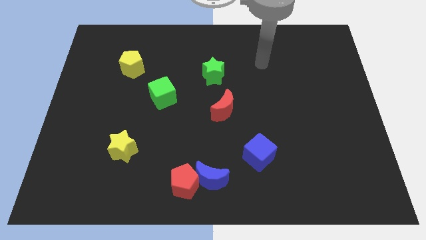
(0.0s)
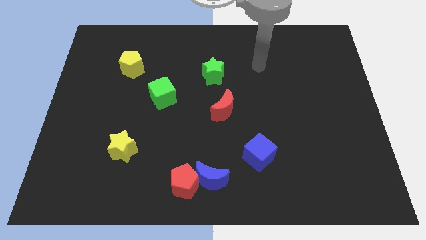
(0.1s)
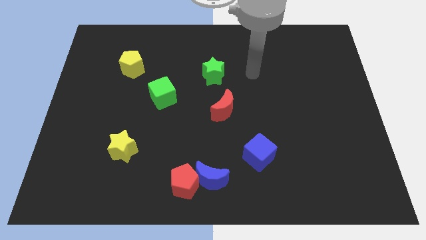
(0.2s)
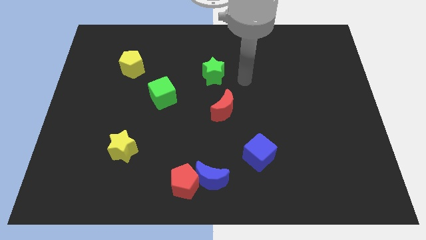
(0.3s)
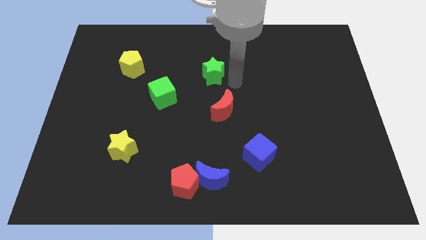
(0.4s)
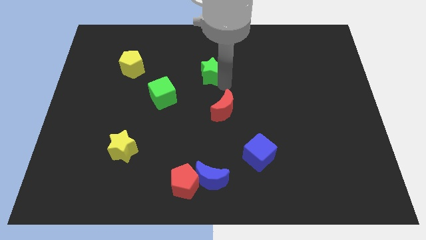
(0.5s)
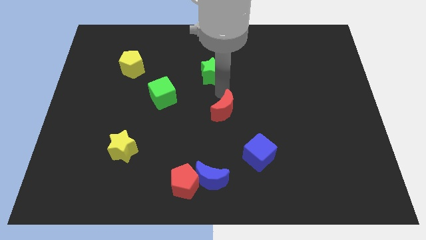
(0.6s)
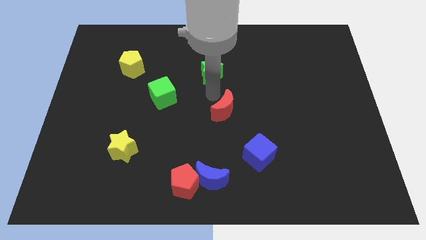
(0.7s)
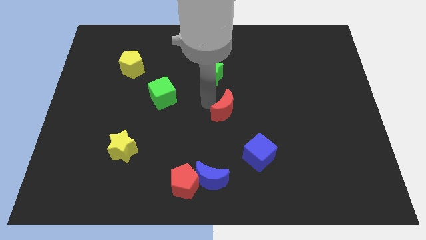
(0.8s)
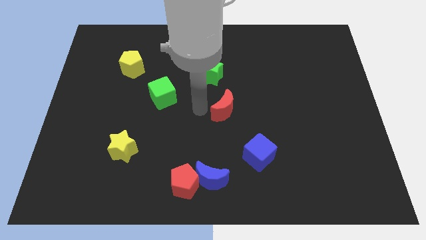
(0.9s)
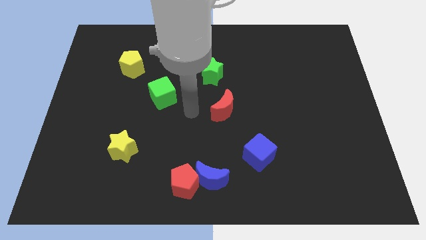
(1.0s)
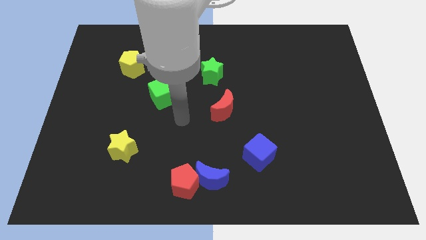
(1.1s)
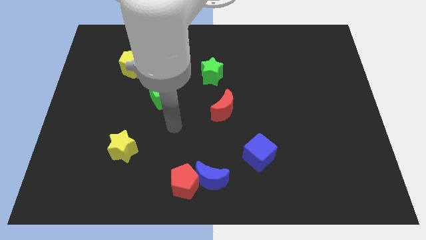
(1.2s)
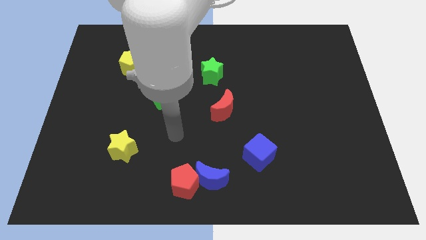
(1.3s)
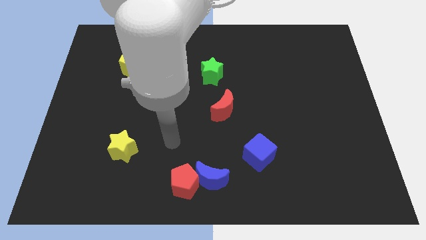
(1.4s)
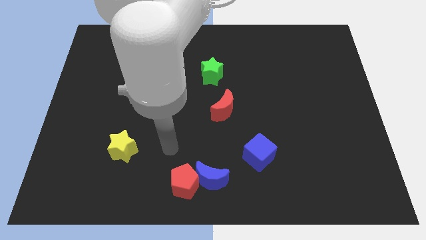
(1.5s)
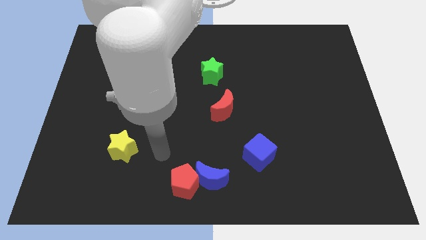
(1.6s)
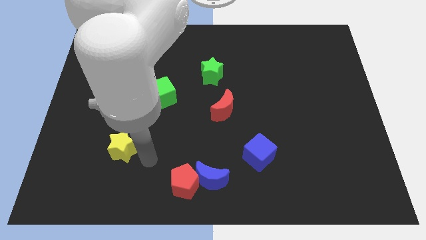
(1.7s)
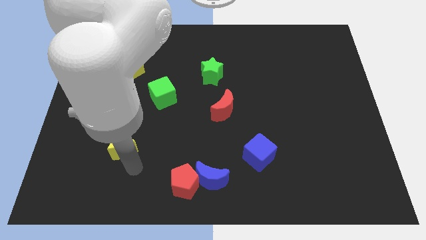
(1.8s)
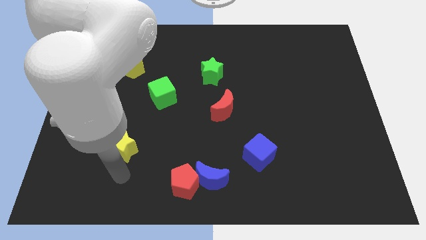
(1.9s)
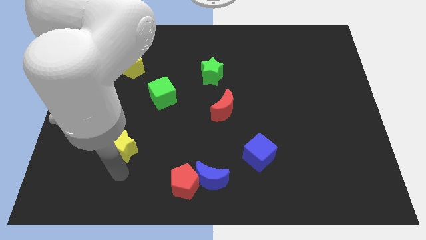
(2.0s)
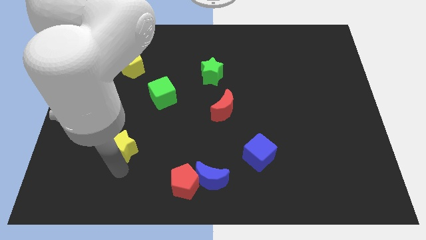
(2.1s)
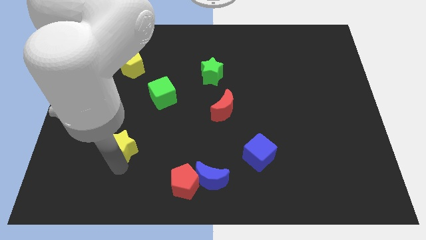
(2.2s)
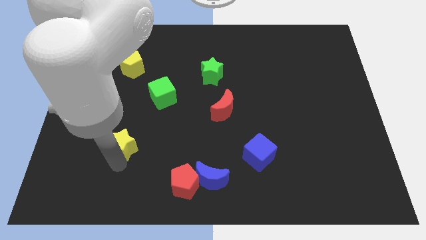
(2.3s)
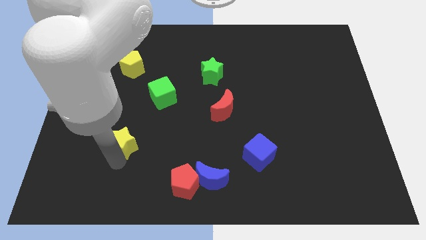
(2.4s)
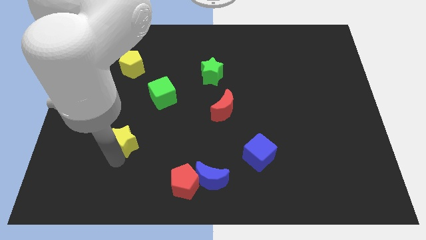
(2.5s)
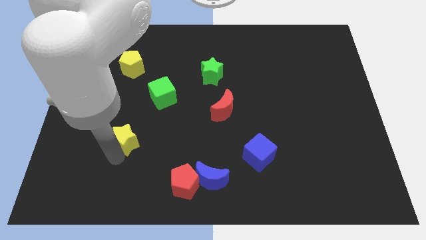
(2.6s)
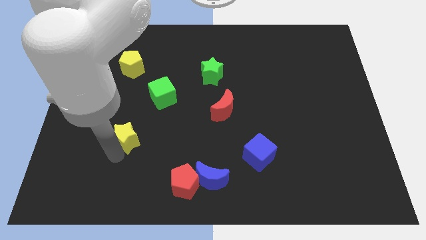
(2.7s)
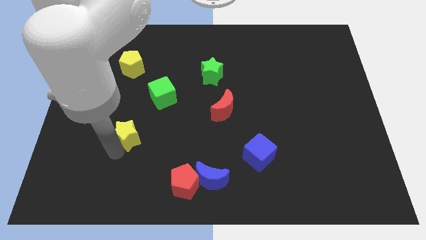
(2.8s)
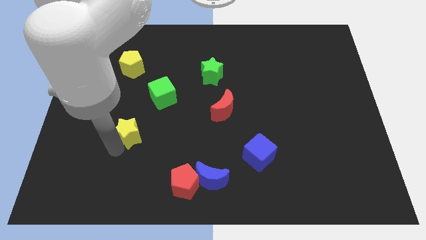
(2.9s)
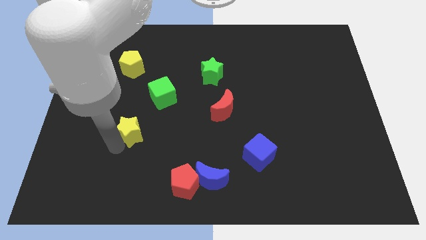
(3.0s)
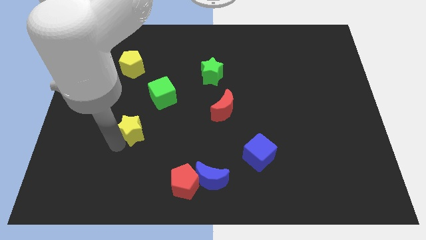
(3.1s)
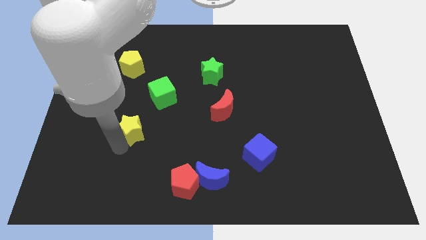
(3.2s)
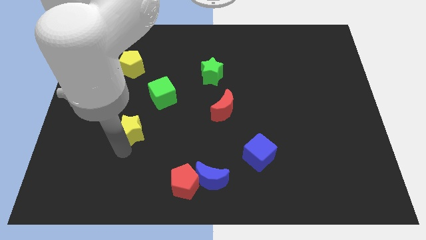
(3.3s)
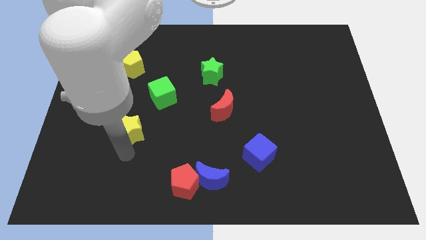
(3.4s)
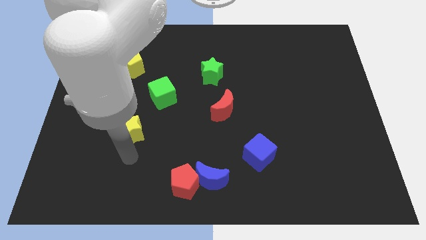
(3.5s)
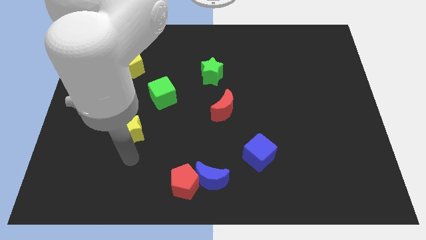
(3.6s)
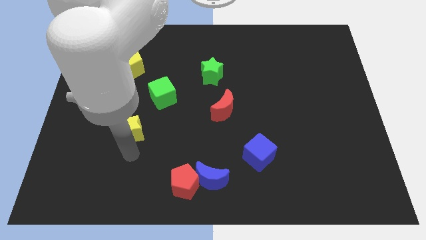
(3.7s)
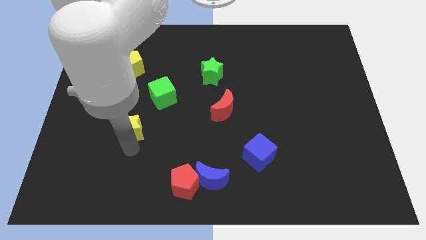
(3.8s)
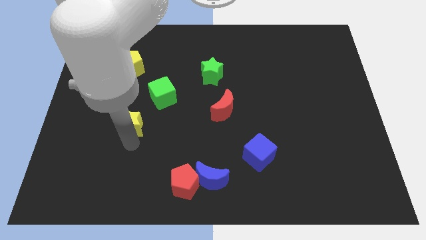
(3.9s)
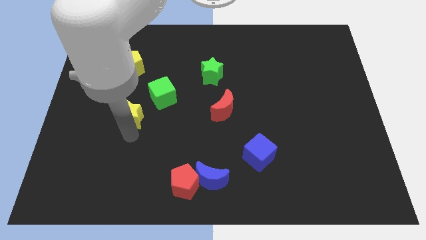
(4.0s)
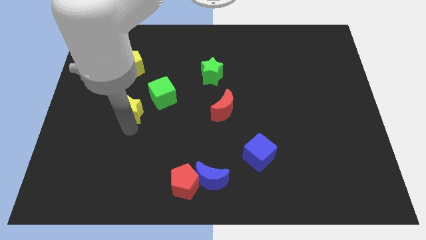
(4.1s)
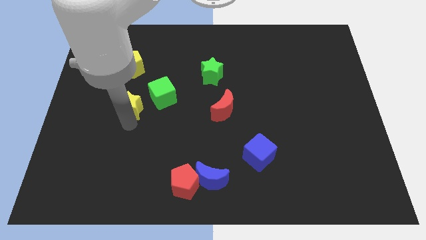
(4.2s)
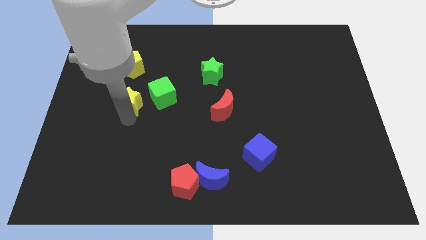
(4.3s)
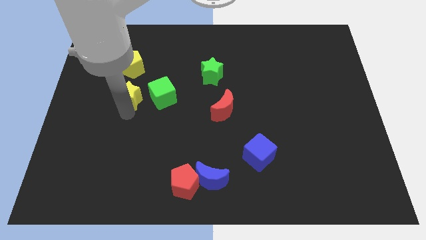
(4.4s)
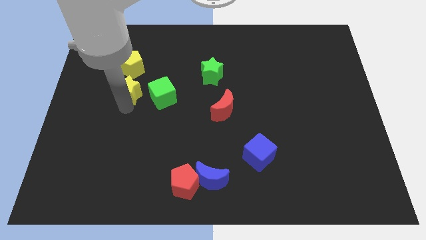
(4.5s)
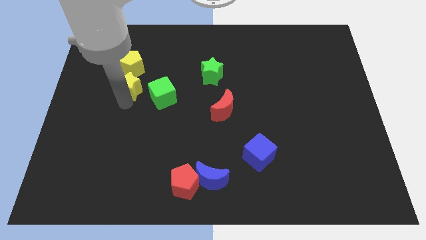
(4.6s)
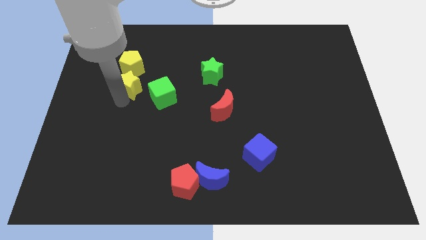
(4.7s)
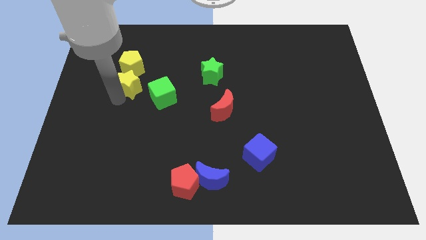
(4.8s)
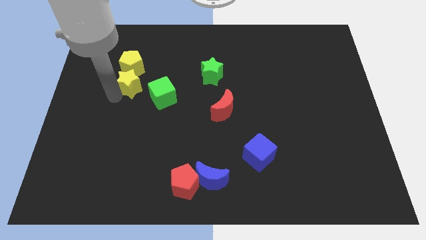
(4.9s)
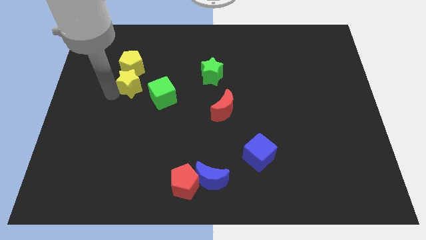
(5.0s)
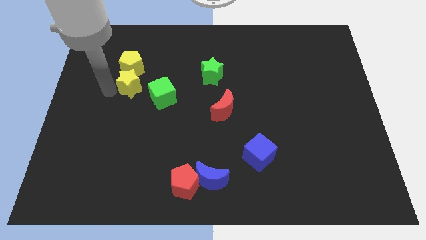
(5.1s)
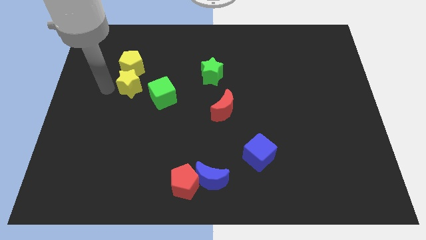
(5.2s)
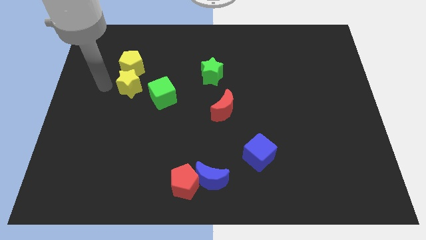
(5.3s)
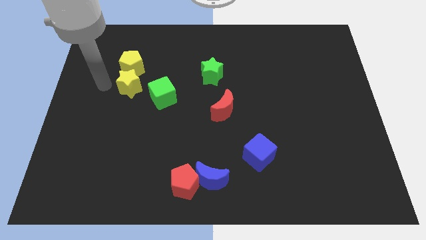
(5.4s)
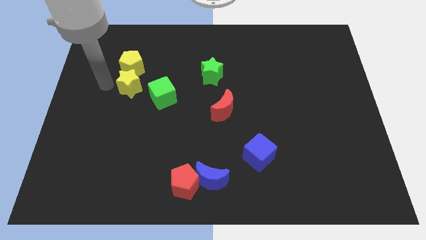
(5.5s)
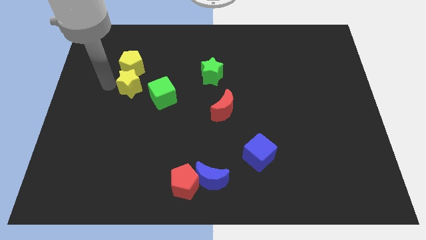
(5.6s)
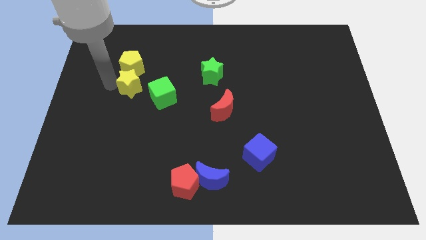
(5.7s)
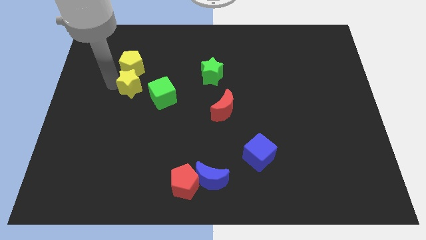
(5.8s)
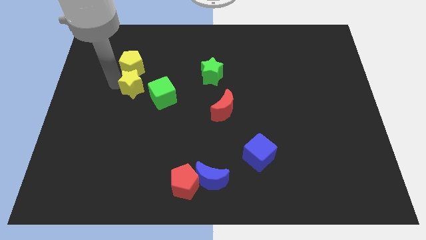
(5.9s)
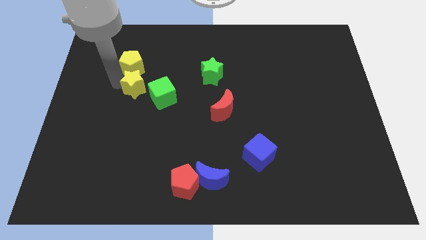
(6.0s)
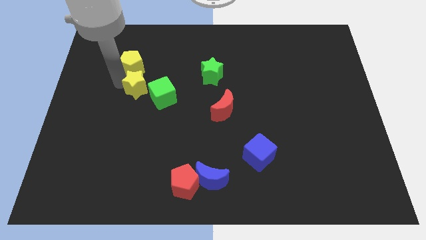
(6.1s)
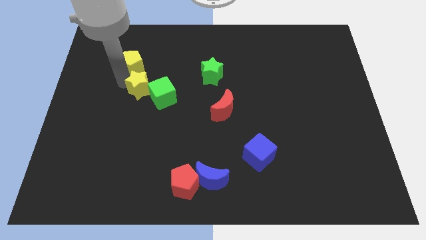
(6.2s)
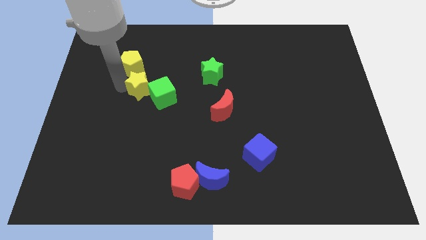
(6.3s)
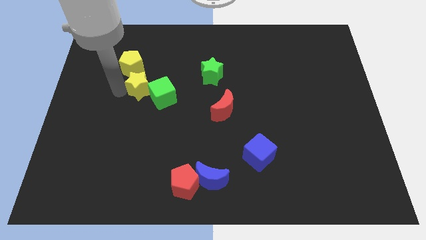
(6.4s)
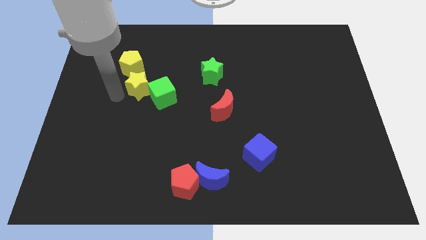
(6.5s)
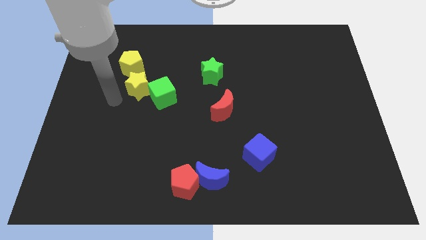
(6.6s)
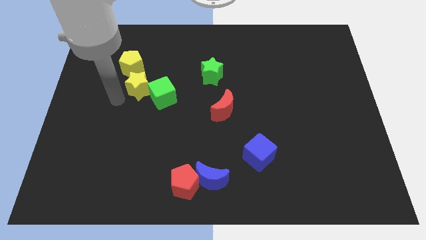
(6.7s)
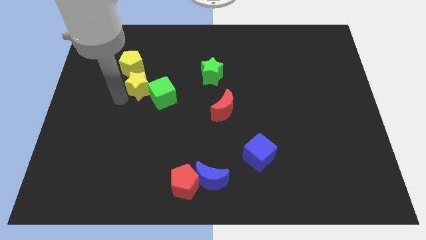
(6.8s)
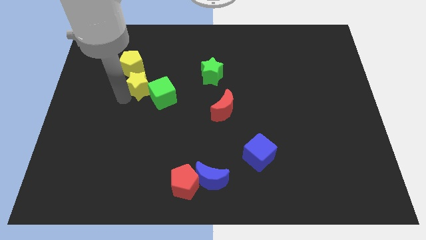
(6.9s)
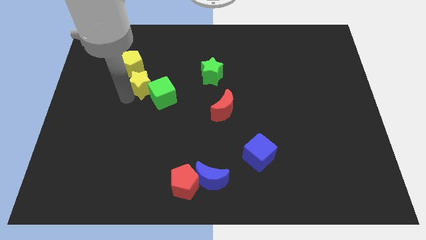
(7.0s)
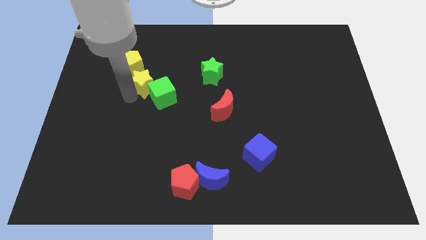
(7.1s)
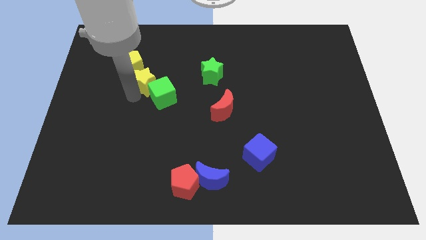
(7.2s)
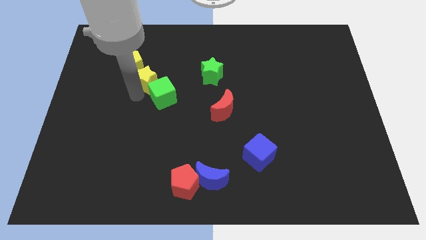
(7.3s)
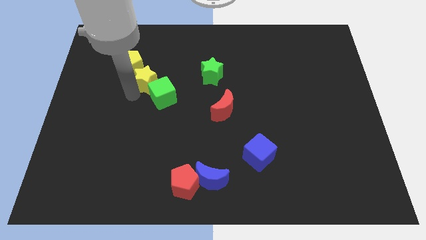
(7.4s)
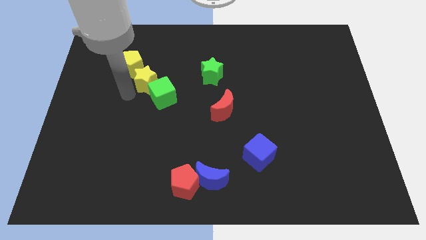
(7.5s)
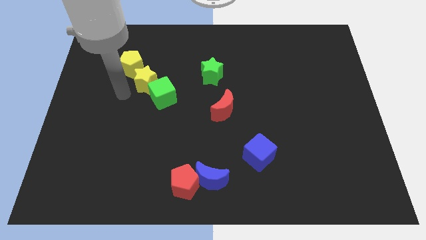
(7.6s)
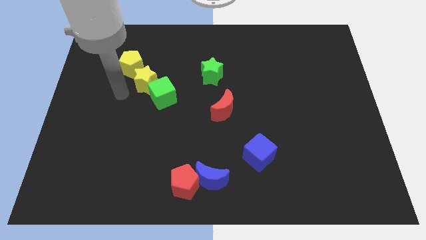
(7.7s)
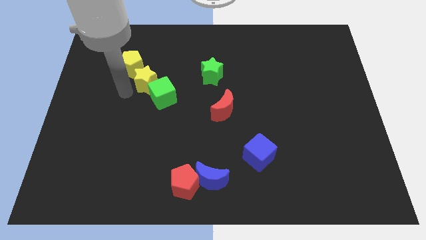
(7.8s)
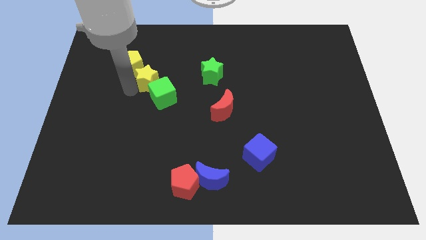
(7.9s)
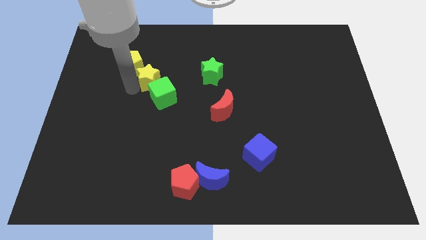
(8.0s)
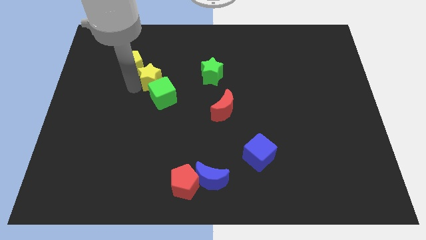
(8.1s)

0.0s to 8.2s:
push the yellow star to the right side of the yellow pentagon
